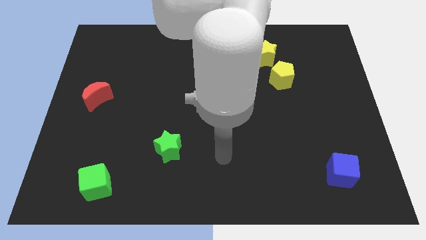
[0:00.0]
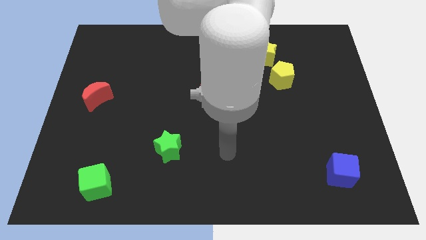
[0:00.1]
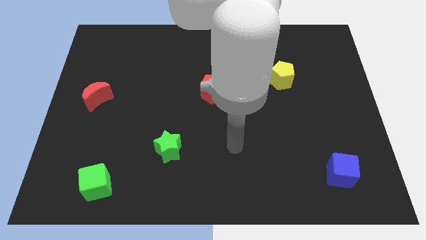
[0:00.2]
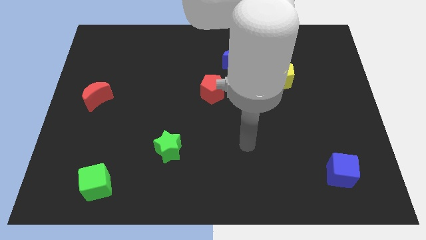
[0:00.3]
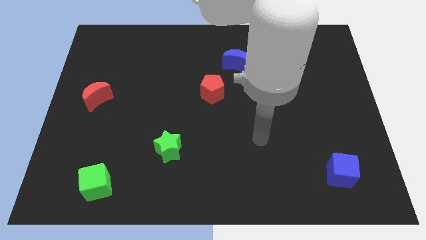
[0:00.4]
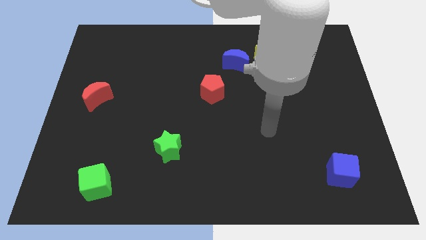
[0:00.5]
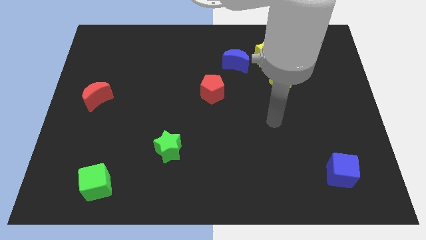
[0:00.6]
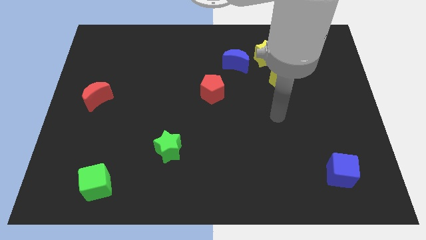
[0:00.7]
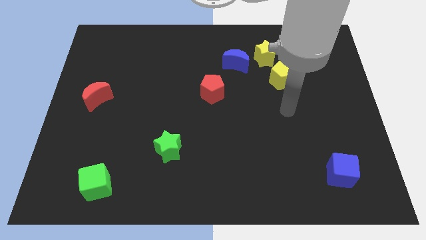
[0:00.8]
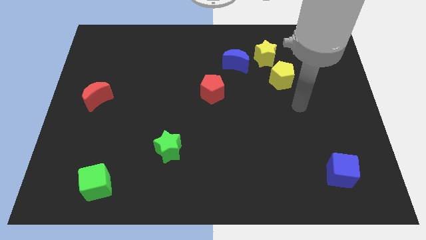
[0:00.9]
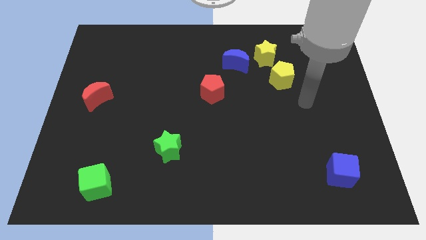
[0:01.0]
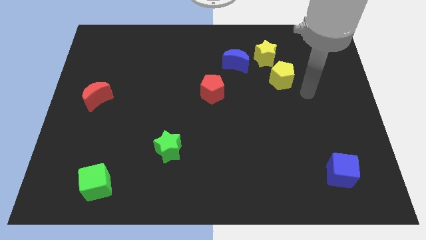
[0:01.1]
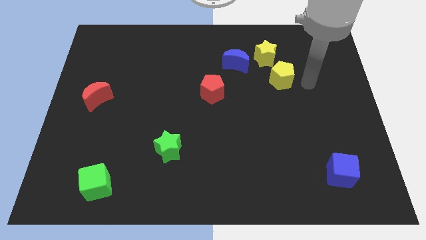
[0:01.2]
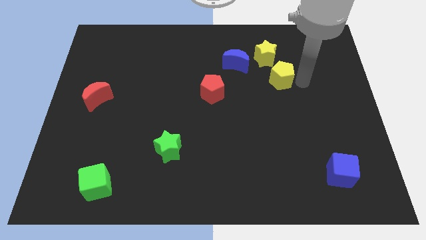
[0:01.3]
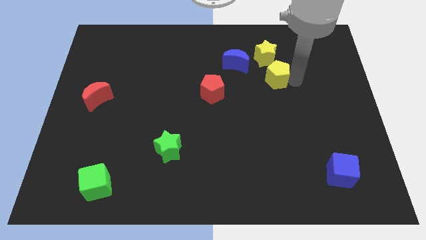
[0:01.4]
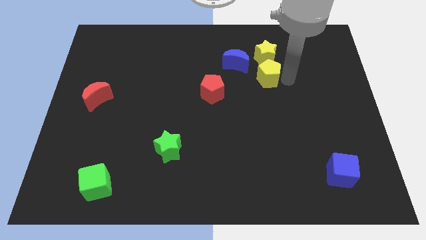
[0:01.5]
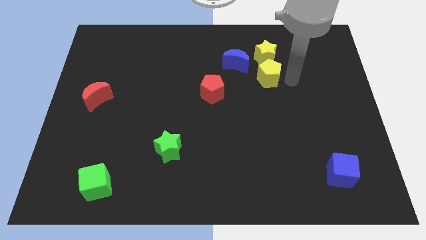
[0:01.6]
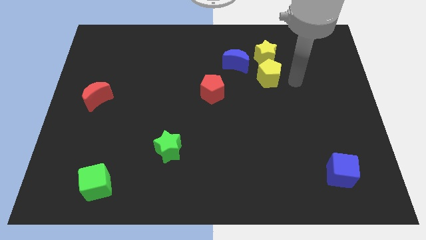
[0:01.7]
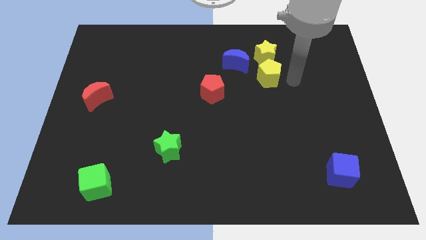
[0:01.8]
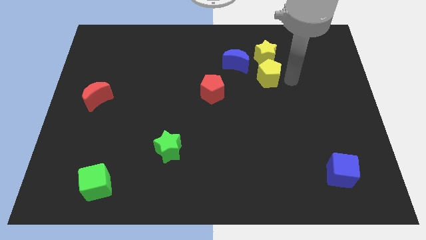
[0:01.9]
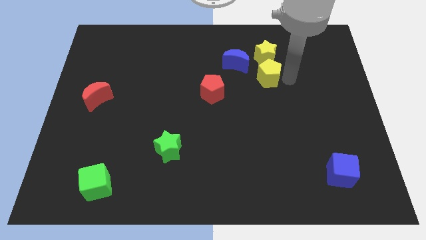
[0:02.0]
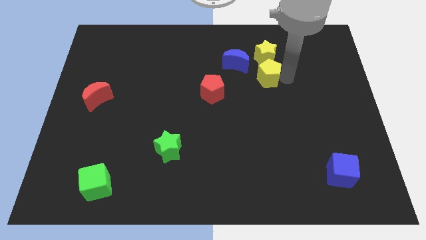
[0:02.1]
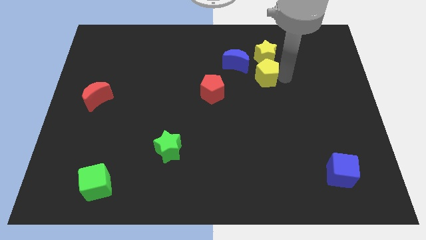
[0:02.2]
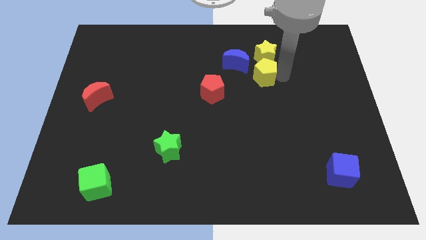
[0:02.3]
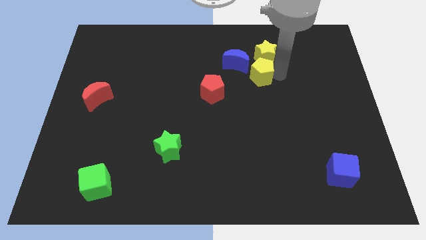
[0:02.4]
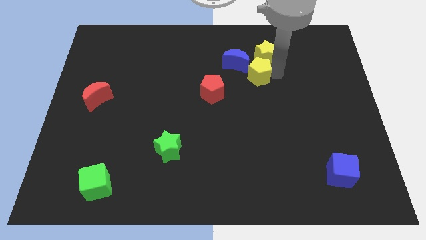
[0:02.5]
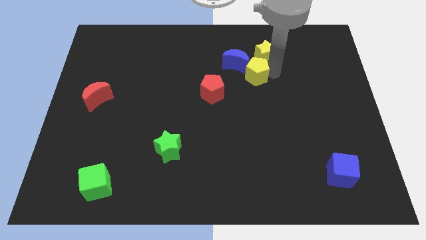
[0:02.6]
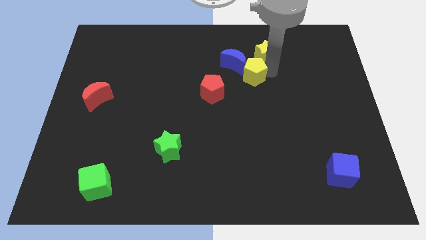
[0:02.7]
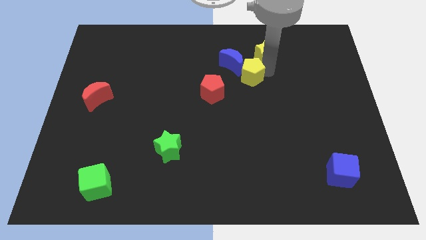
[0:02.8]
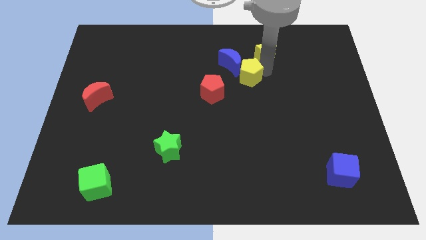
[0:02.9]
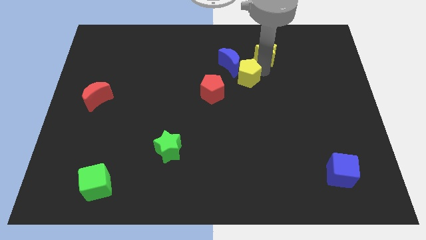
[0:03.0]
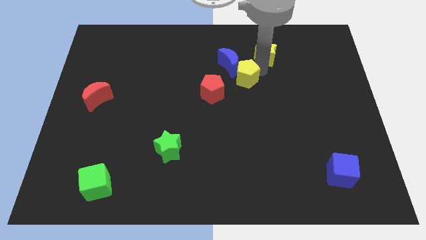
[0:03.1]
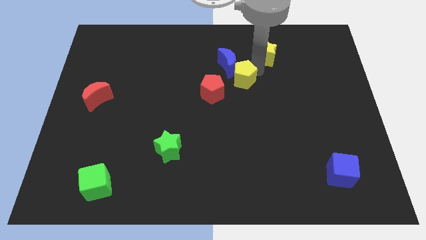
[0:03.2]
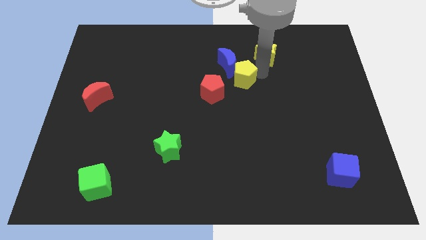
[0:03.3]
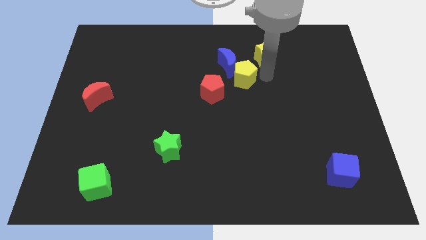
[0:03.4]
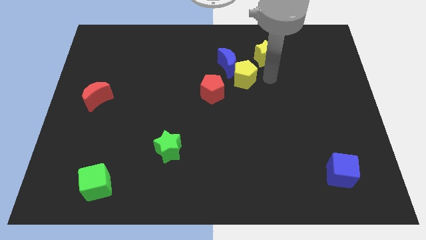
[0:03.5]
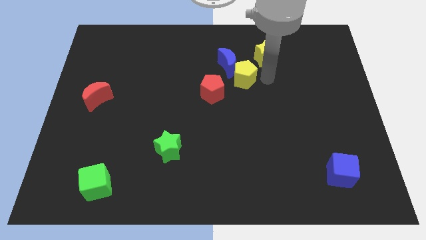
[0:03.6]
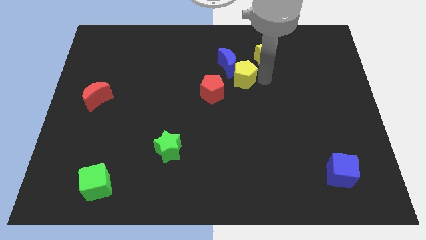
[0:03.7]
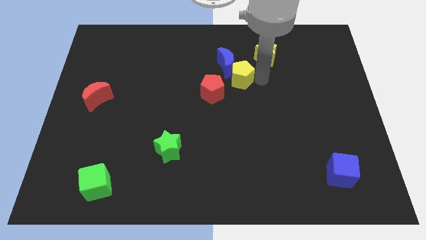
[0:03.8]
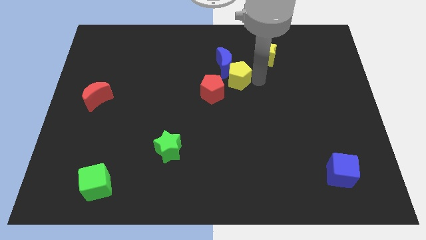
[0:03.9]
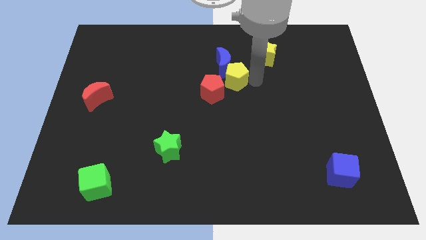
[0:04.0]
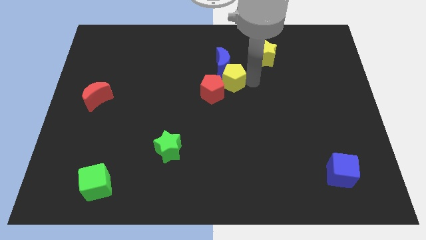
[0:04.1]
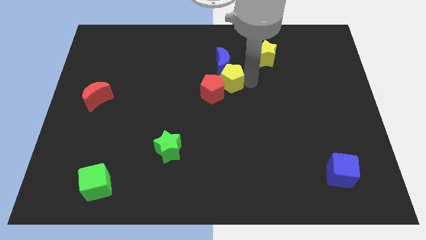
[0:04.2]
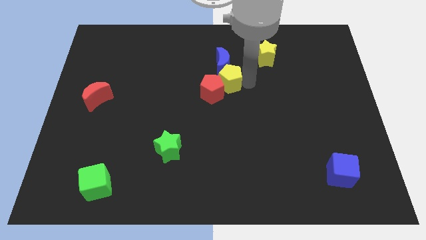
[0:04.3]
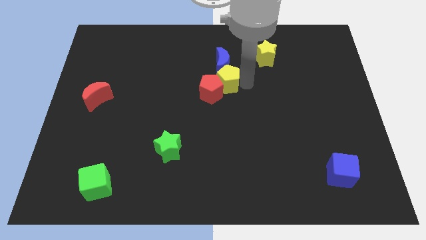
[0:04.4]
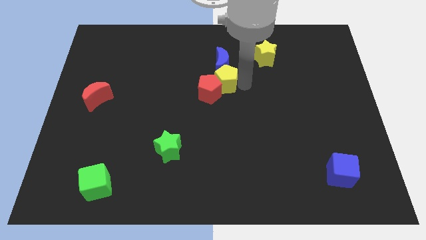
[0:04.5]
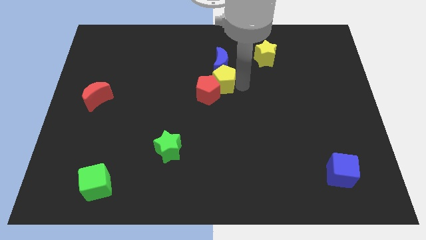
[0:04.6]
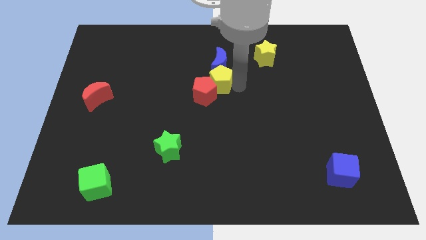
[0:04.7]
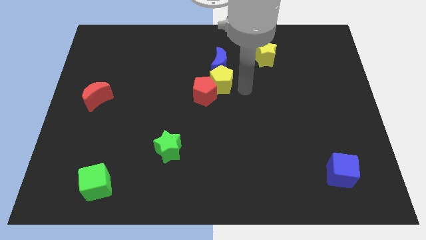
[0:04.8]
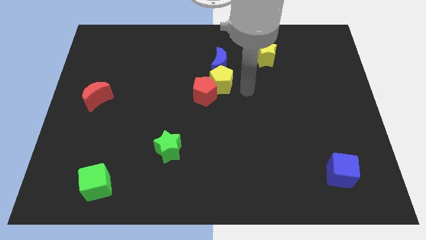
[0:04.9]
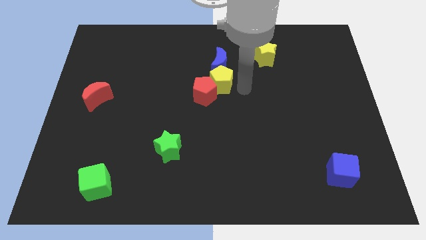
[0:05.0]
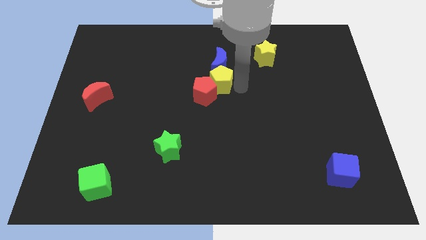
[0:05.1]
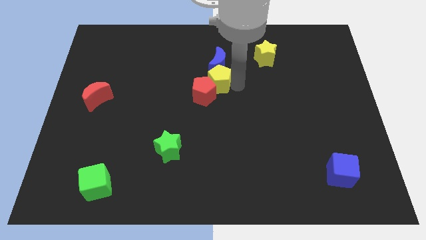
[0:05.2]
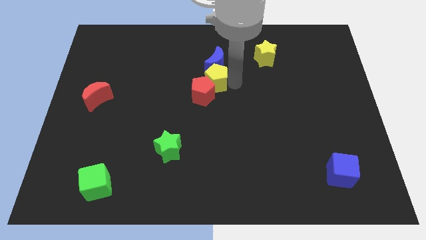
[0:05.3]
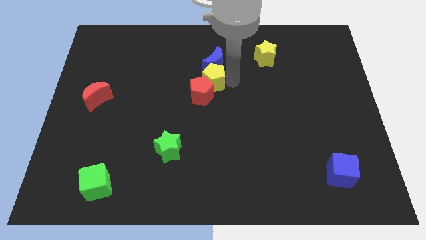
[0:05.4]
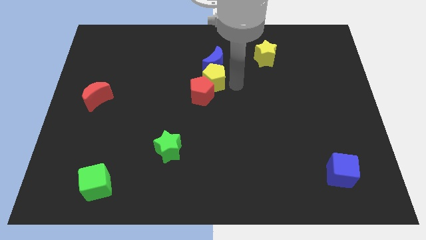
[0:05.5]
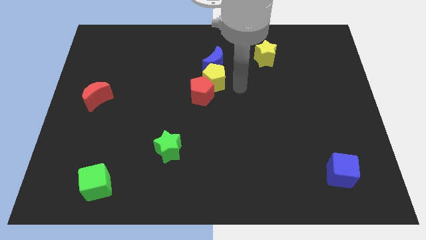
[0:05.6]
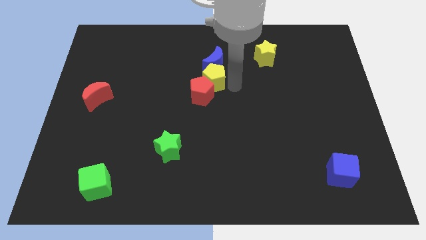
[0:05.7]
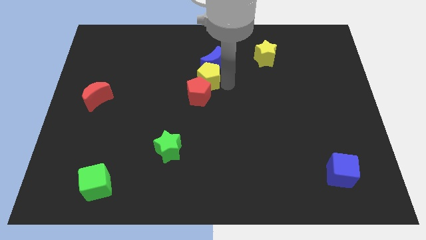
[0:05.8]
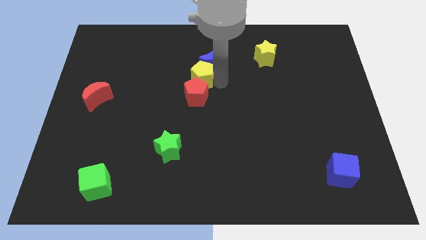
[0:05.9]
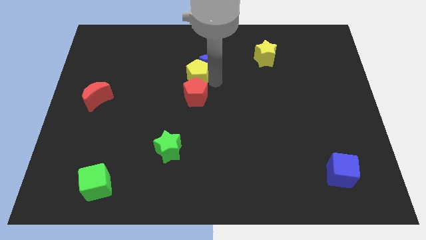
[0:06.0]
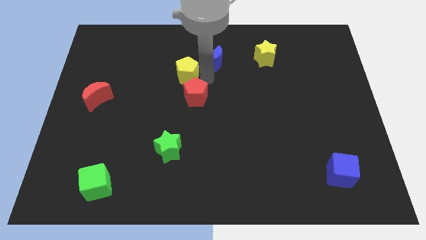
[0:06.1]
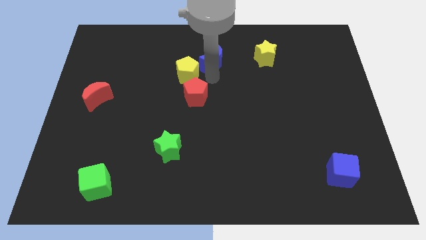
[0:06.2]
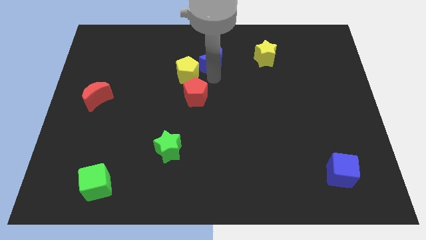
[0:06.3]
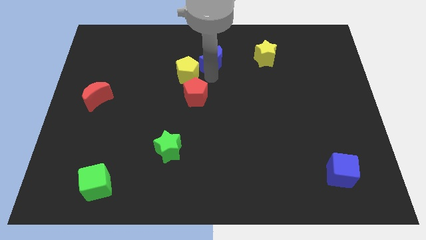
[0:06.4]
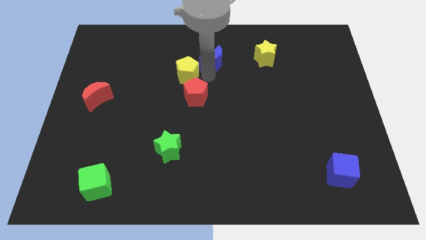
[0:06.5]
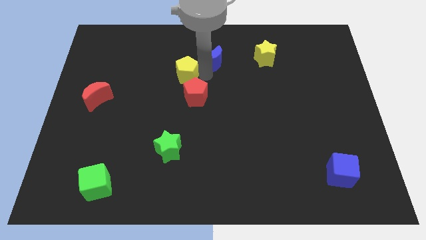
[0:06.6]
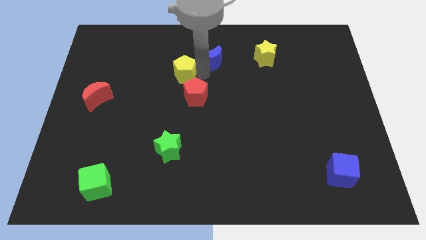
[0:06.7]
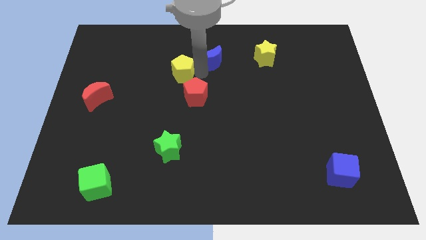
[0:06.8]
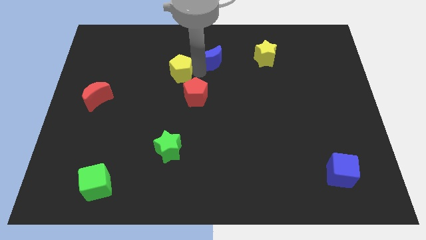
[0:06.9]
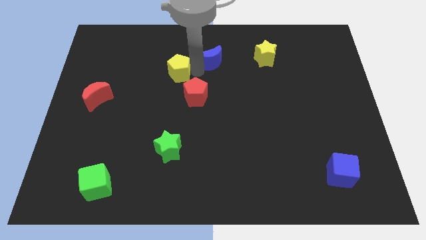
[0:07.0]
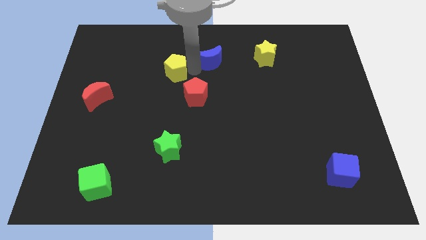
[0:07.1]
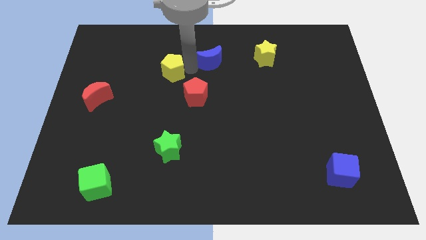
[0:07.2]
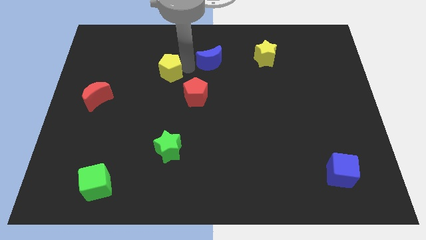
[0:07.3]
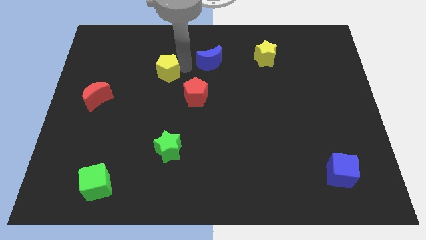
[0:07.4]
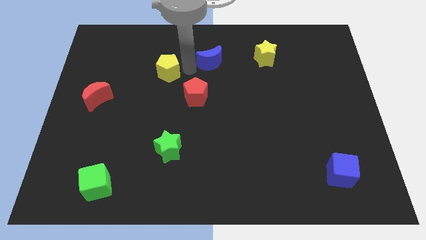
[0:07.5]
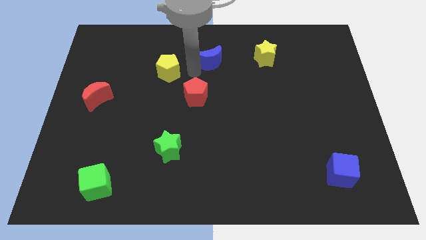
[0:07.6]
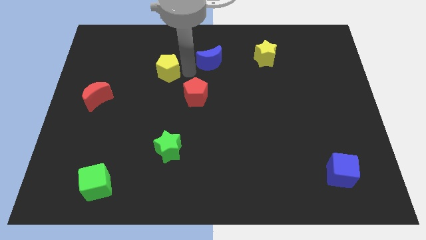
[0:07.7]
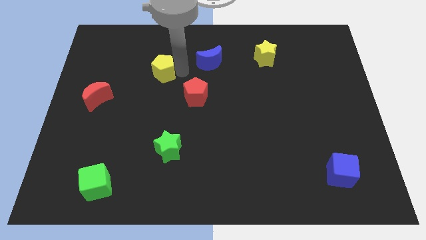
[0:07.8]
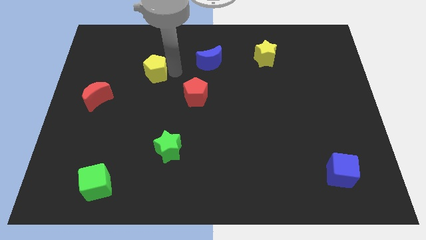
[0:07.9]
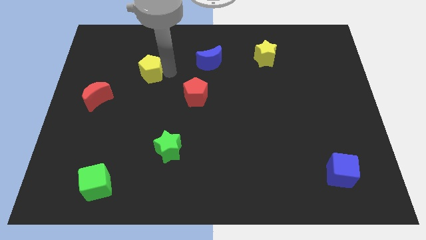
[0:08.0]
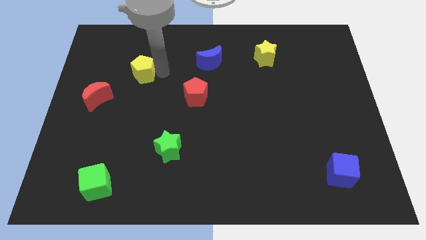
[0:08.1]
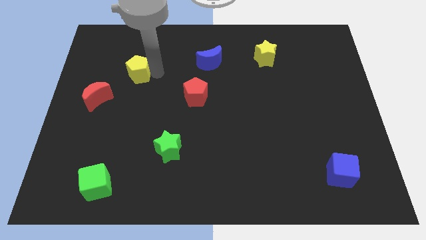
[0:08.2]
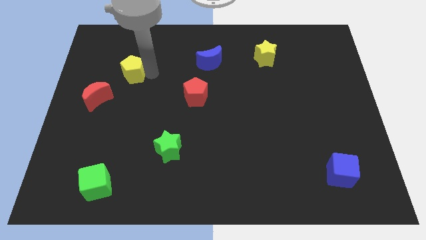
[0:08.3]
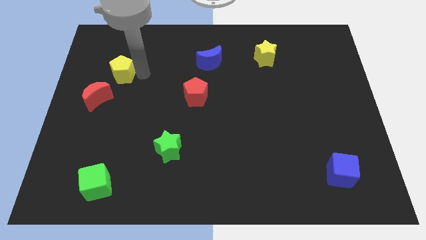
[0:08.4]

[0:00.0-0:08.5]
put the yellow pentagon above the red moon
